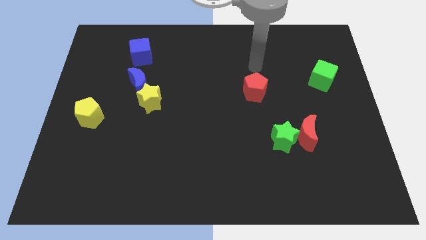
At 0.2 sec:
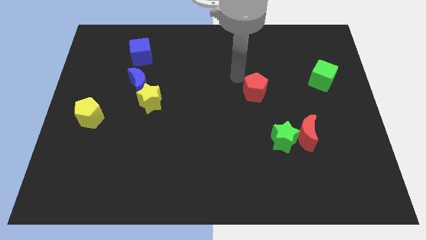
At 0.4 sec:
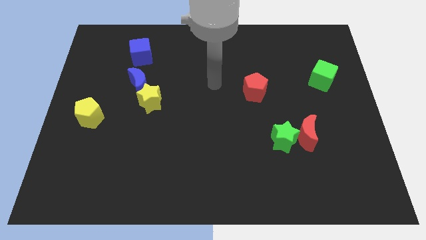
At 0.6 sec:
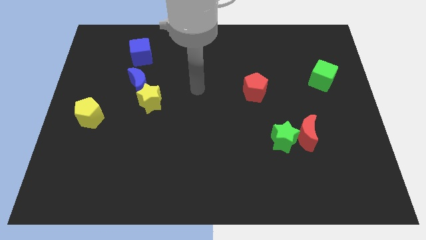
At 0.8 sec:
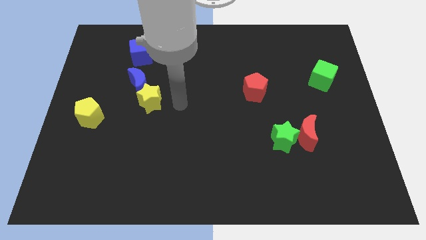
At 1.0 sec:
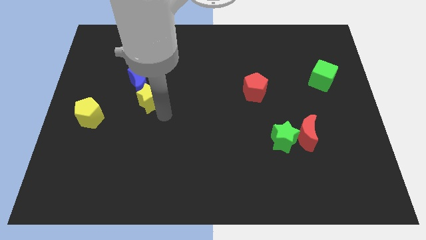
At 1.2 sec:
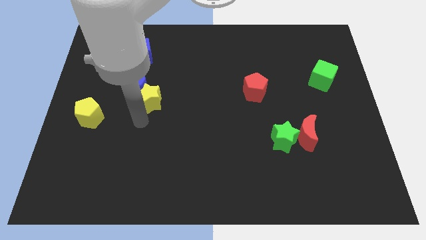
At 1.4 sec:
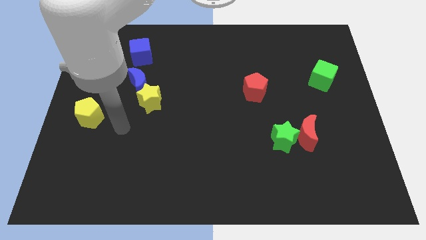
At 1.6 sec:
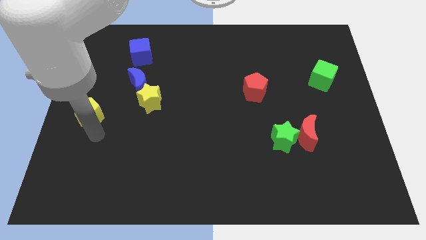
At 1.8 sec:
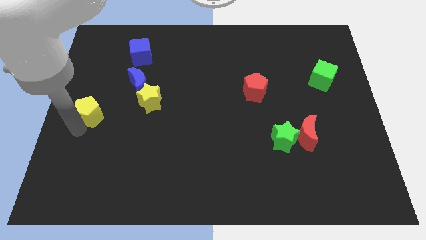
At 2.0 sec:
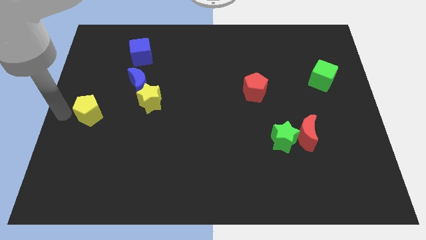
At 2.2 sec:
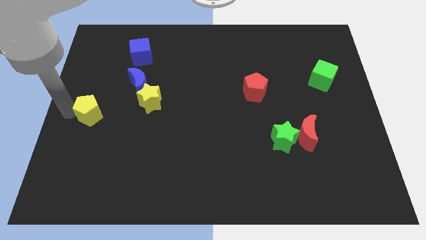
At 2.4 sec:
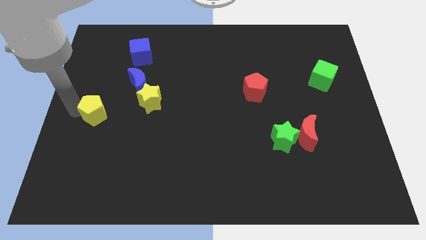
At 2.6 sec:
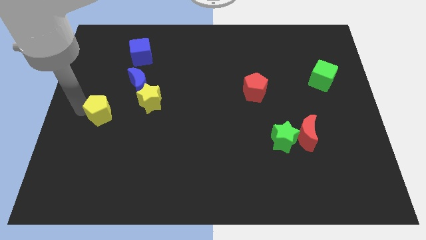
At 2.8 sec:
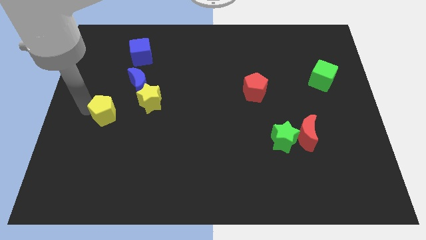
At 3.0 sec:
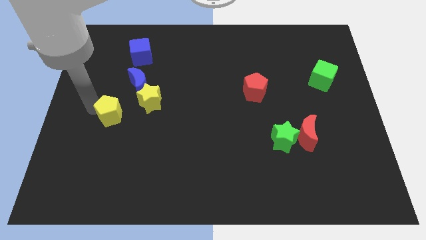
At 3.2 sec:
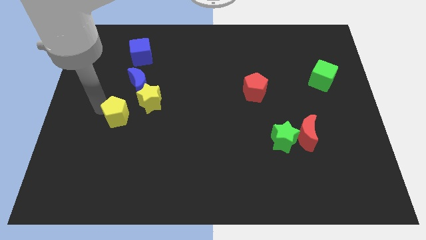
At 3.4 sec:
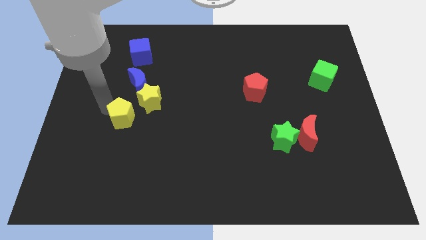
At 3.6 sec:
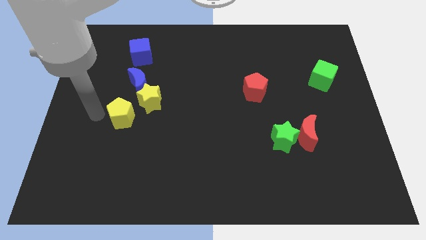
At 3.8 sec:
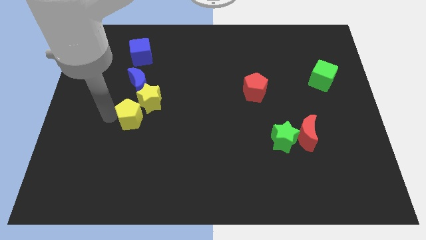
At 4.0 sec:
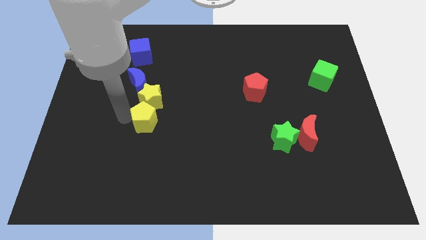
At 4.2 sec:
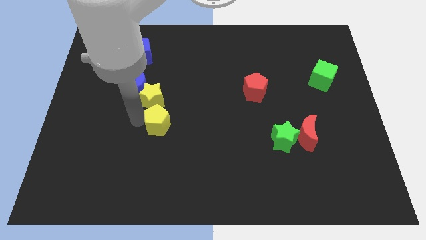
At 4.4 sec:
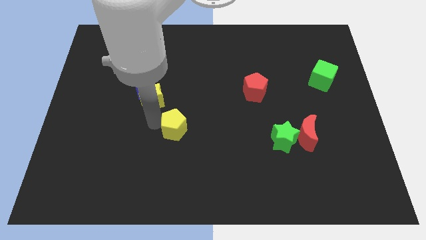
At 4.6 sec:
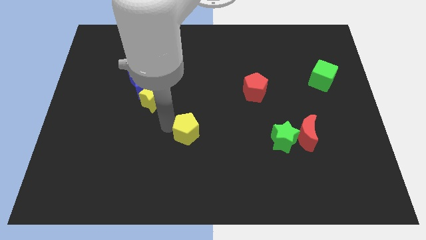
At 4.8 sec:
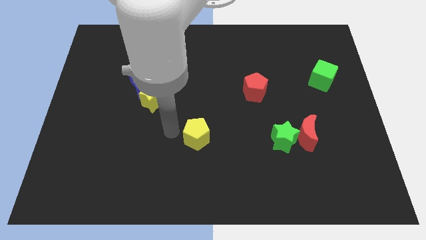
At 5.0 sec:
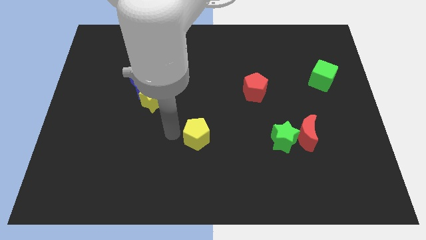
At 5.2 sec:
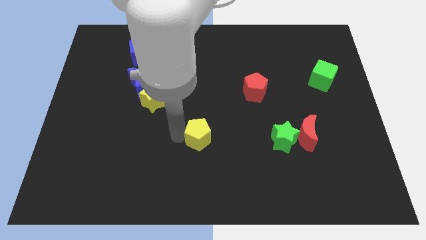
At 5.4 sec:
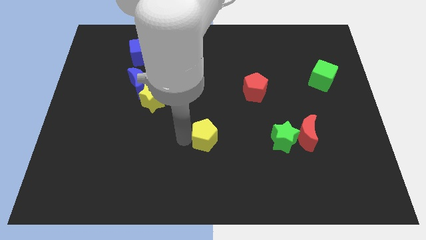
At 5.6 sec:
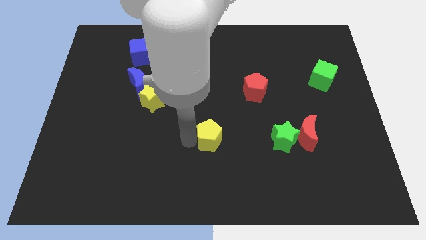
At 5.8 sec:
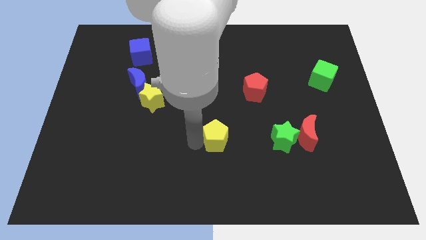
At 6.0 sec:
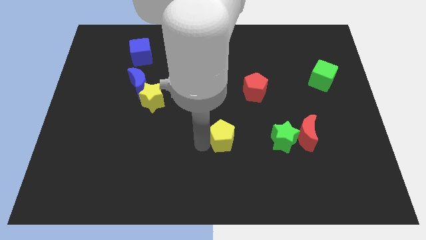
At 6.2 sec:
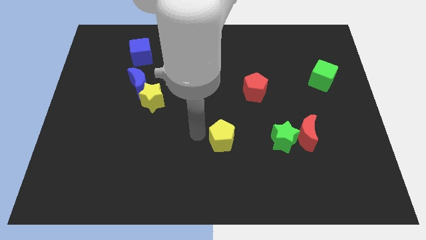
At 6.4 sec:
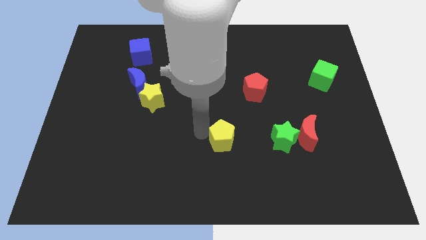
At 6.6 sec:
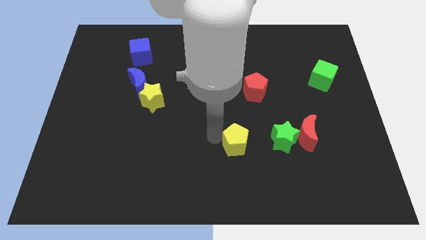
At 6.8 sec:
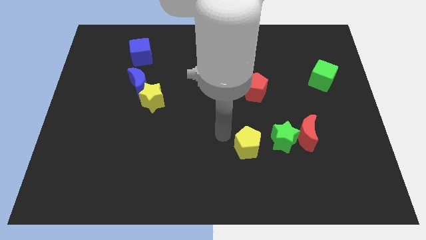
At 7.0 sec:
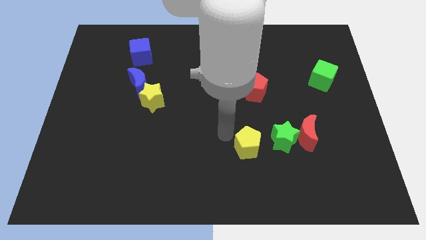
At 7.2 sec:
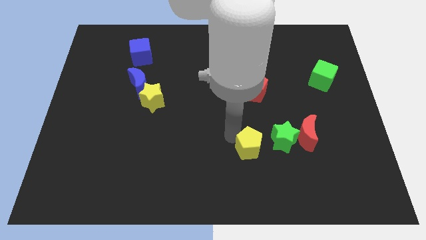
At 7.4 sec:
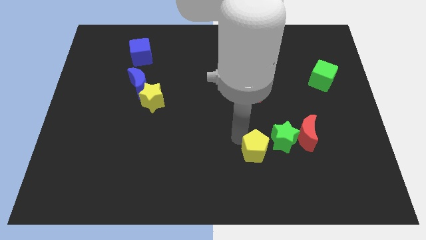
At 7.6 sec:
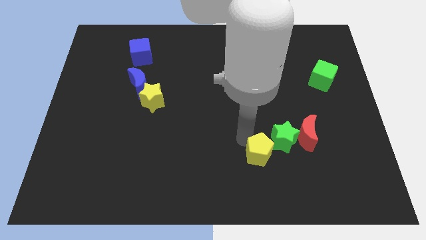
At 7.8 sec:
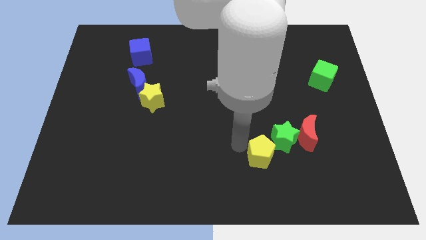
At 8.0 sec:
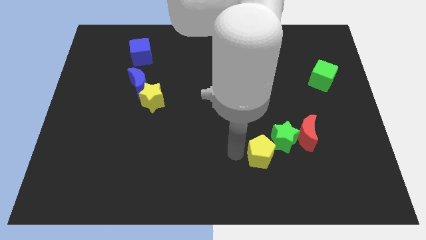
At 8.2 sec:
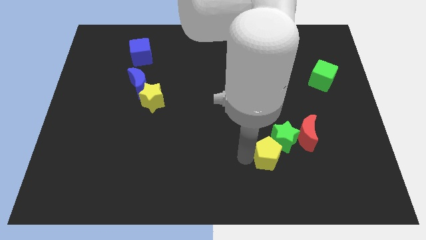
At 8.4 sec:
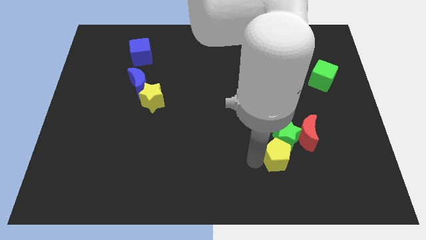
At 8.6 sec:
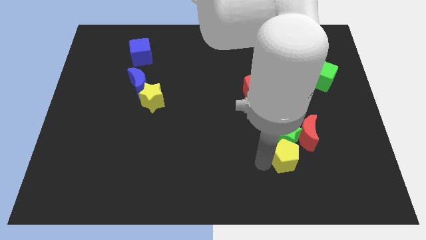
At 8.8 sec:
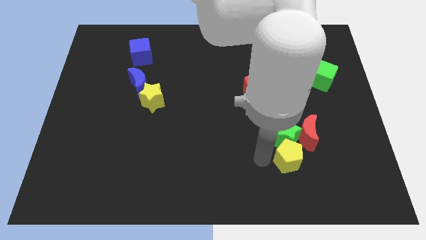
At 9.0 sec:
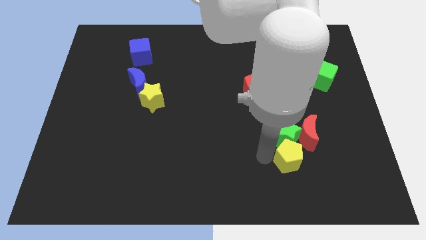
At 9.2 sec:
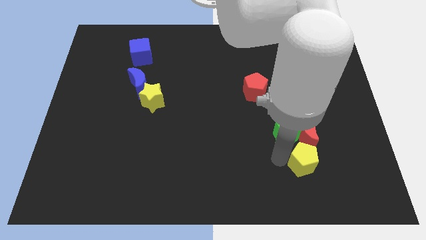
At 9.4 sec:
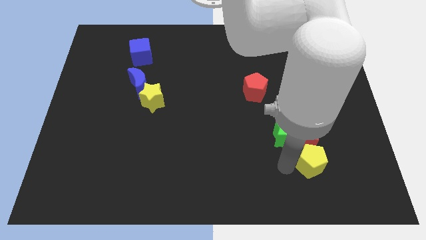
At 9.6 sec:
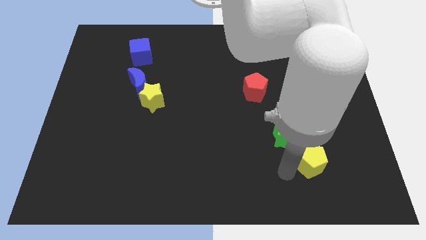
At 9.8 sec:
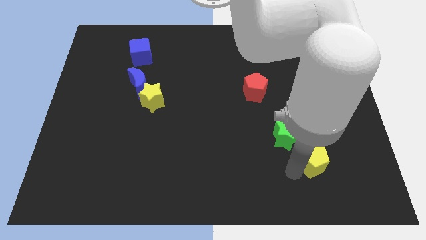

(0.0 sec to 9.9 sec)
push the yellow pentagon diagonally down and to the right of the red moon

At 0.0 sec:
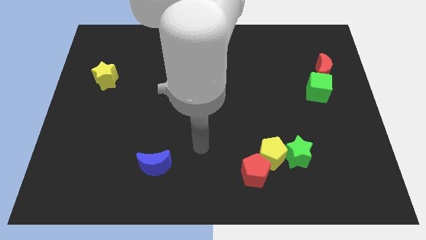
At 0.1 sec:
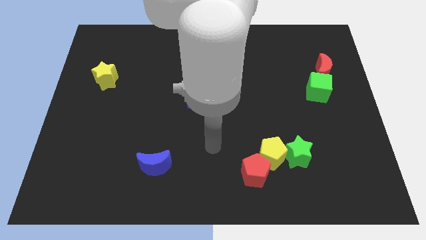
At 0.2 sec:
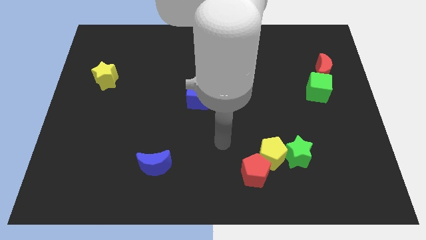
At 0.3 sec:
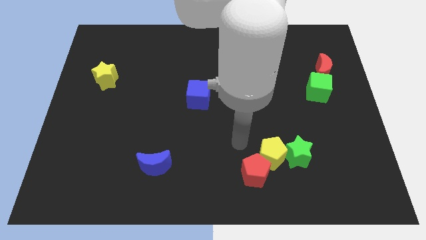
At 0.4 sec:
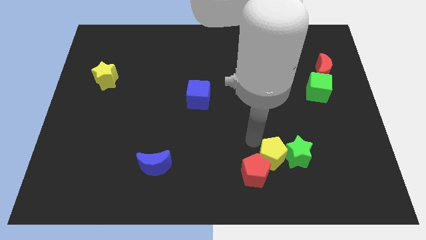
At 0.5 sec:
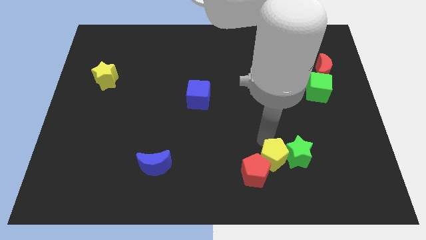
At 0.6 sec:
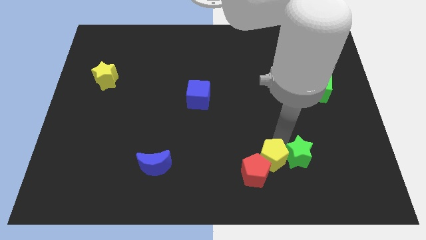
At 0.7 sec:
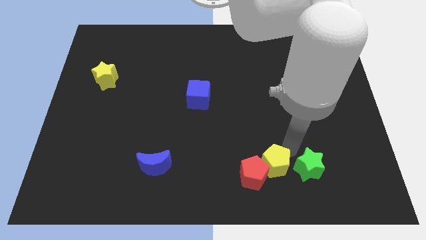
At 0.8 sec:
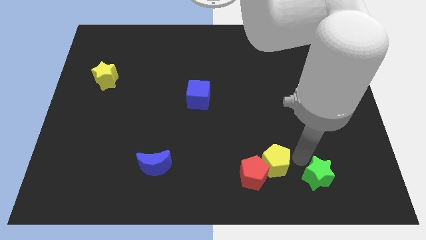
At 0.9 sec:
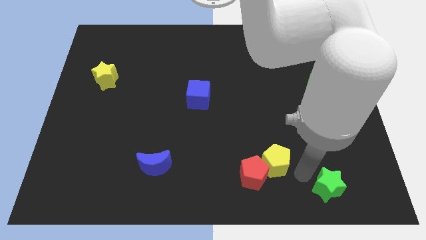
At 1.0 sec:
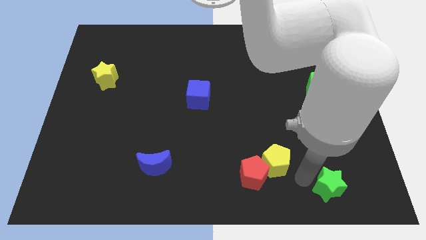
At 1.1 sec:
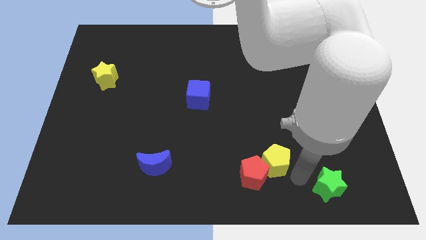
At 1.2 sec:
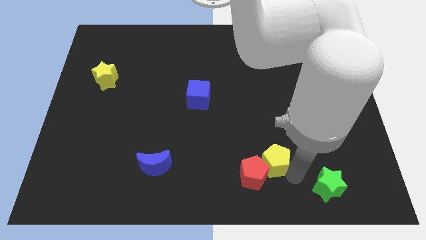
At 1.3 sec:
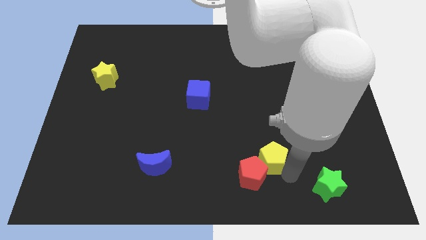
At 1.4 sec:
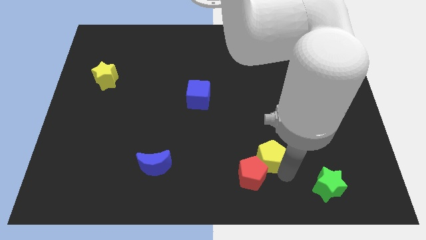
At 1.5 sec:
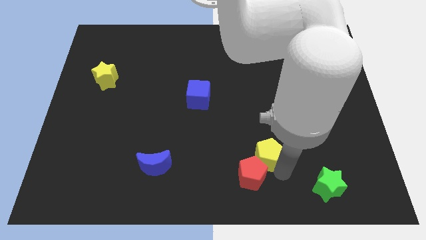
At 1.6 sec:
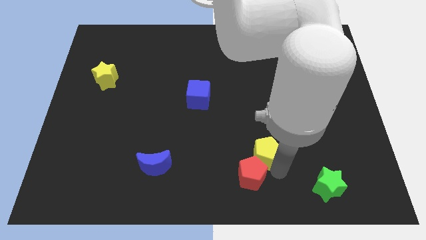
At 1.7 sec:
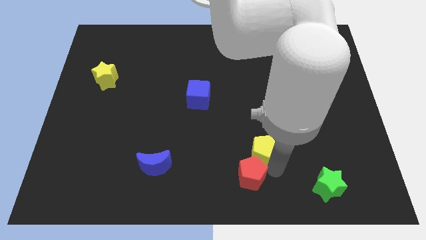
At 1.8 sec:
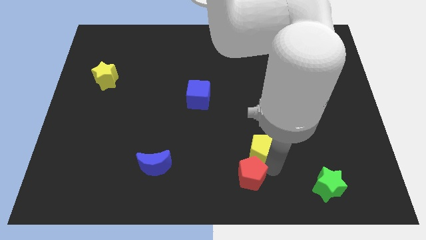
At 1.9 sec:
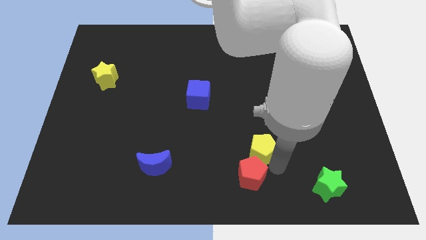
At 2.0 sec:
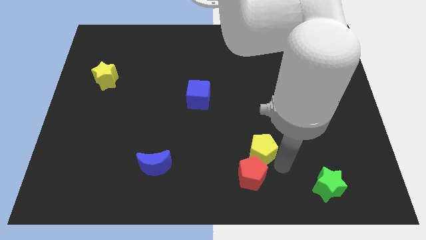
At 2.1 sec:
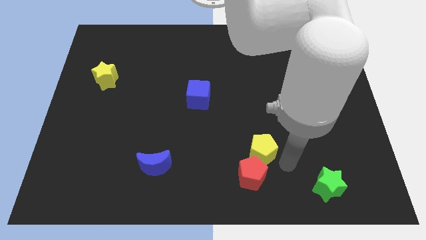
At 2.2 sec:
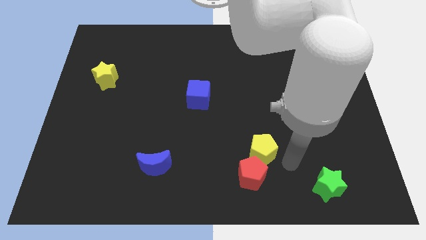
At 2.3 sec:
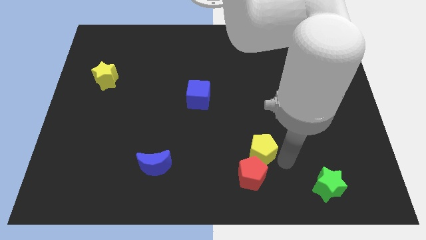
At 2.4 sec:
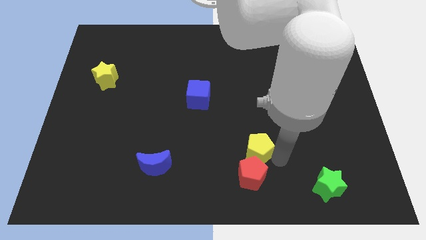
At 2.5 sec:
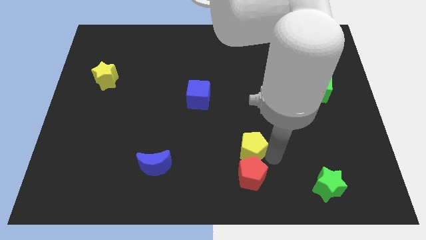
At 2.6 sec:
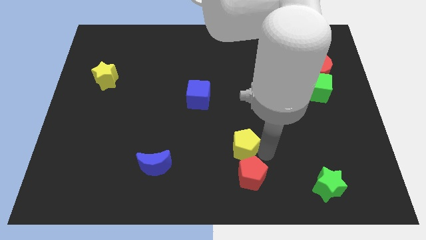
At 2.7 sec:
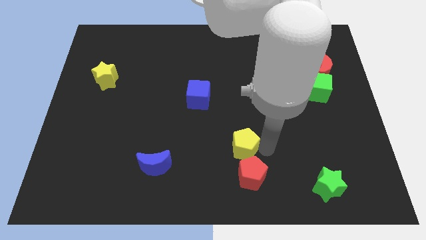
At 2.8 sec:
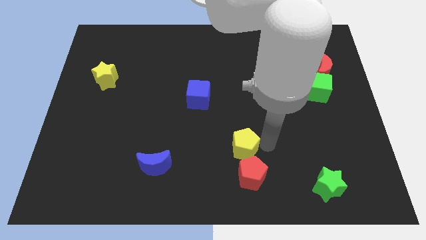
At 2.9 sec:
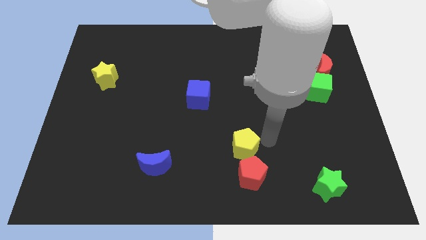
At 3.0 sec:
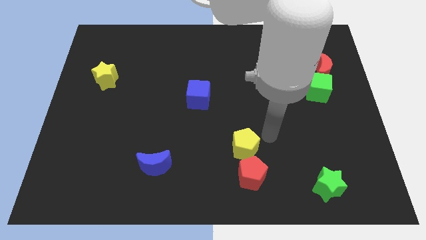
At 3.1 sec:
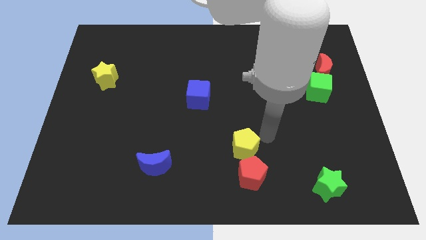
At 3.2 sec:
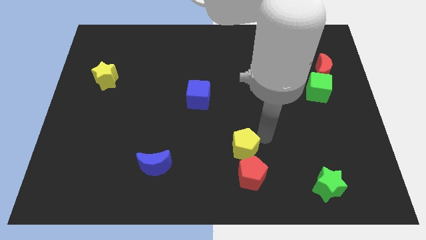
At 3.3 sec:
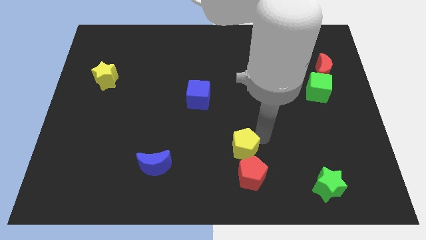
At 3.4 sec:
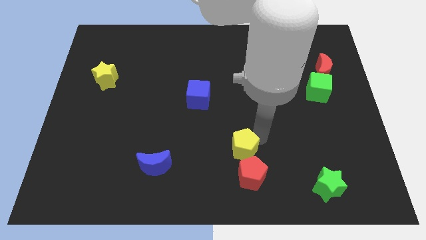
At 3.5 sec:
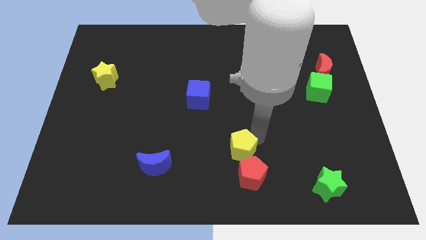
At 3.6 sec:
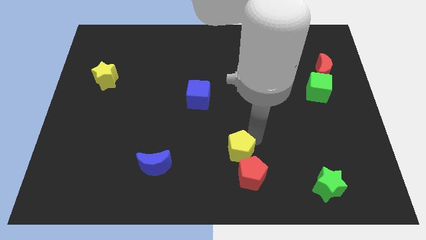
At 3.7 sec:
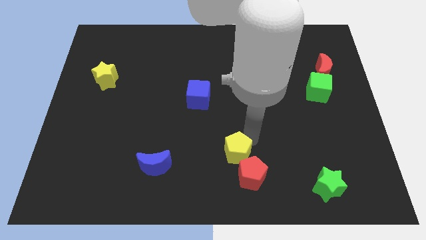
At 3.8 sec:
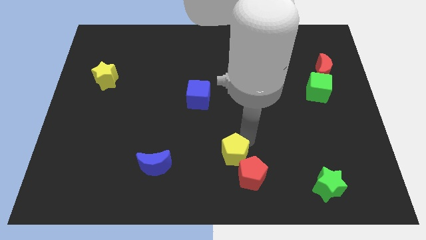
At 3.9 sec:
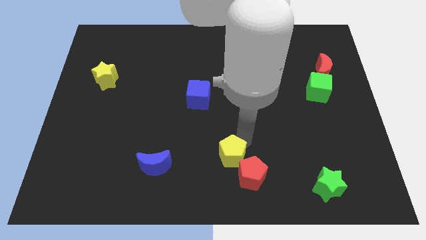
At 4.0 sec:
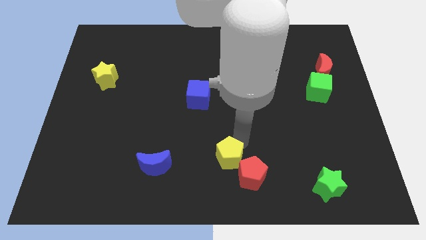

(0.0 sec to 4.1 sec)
move the yellow pentagon right of the blue moon
